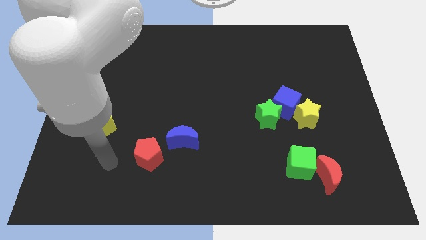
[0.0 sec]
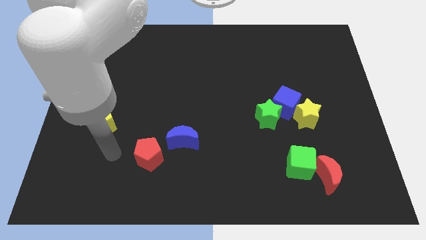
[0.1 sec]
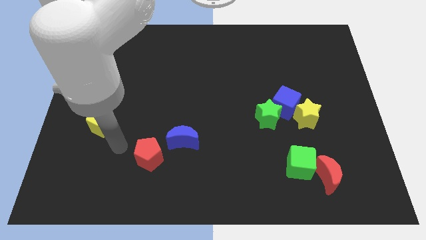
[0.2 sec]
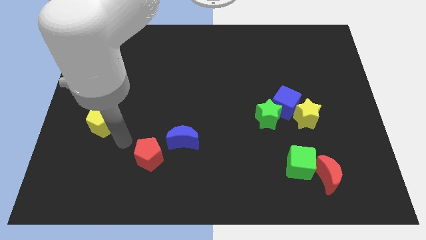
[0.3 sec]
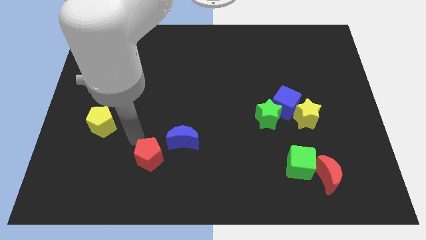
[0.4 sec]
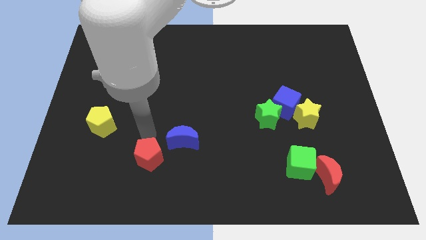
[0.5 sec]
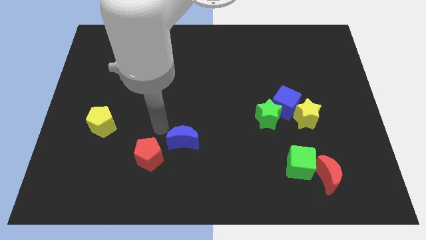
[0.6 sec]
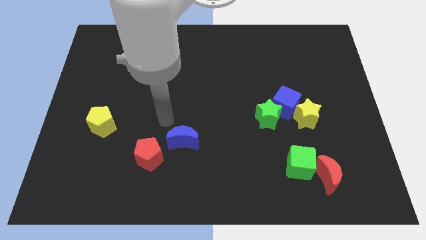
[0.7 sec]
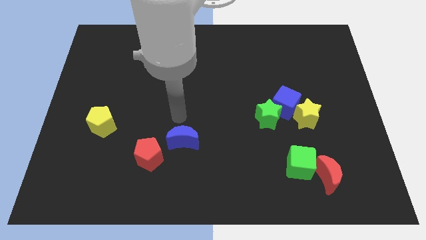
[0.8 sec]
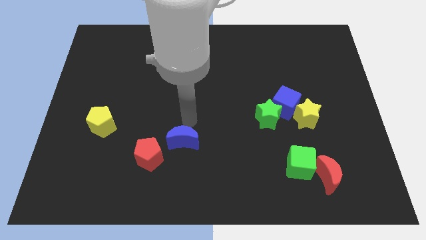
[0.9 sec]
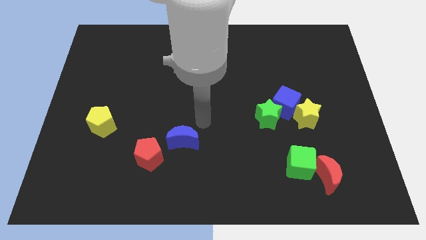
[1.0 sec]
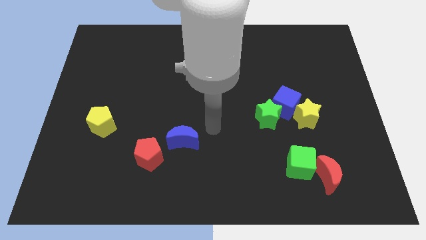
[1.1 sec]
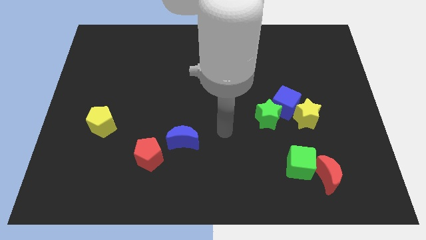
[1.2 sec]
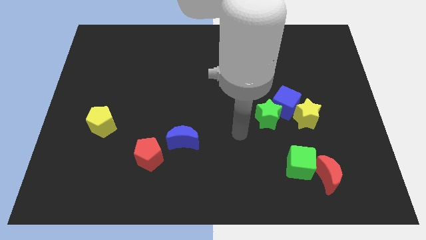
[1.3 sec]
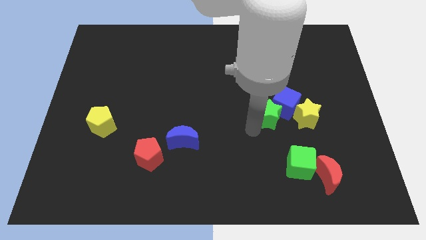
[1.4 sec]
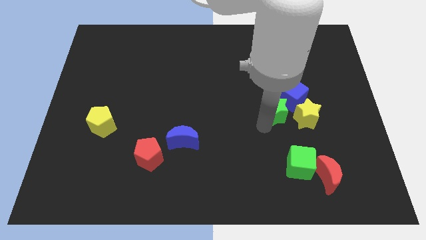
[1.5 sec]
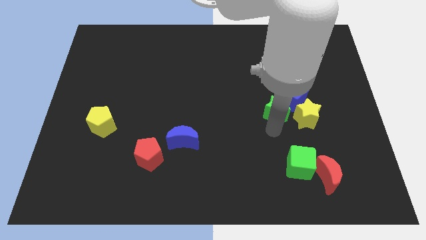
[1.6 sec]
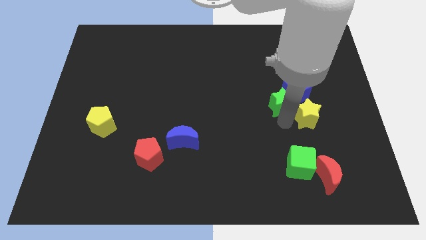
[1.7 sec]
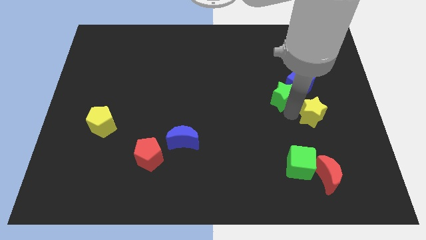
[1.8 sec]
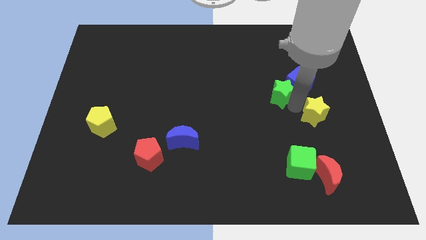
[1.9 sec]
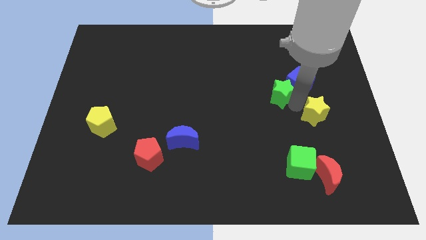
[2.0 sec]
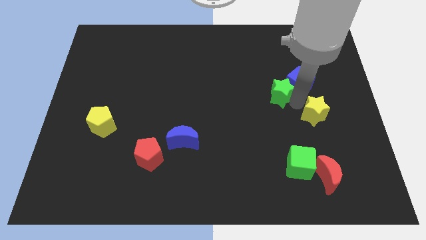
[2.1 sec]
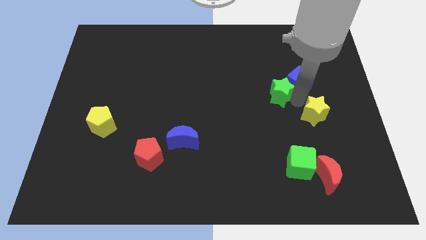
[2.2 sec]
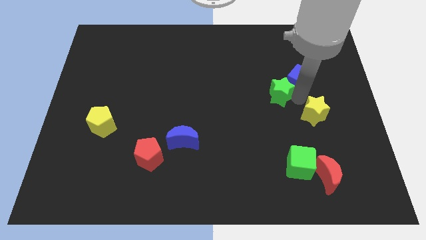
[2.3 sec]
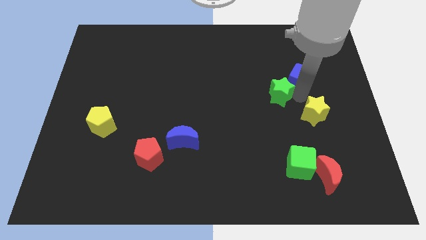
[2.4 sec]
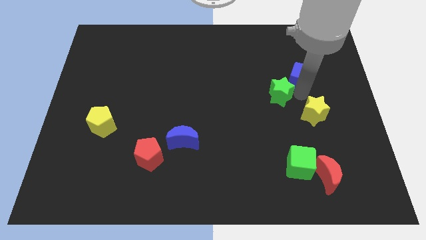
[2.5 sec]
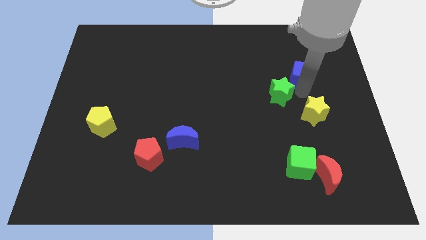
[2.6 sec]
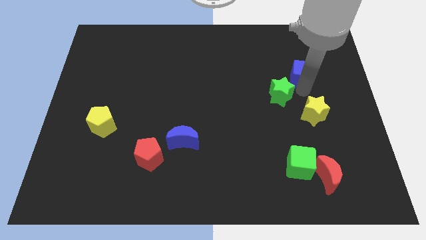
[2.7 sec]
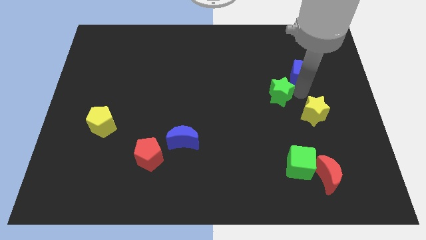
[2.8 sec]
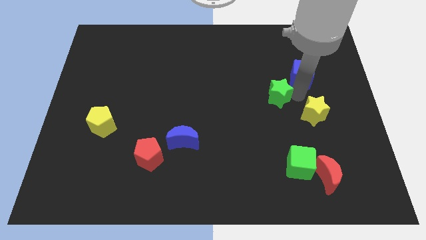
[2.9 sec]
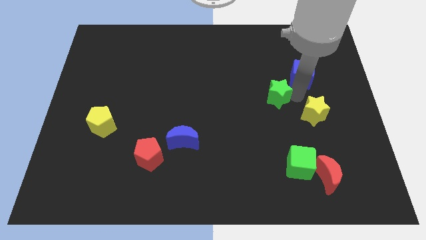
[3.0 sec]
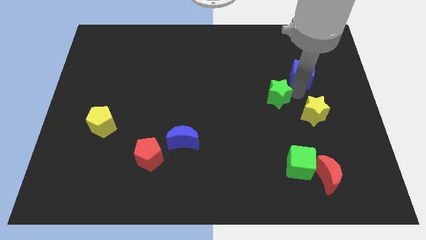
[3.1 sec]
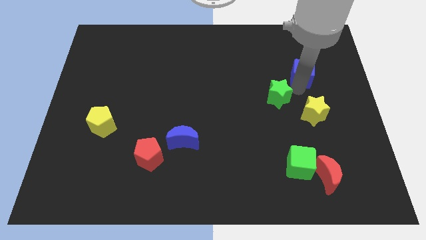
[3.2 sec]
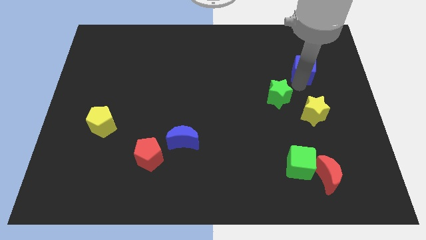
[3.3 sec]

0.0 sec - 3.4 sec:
pull the blue cube apart from the green star and yellow star

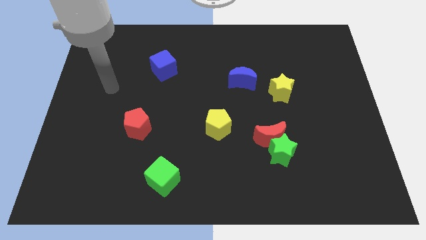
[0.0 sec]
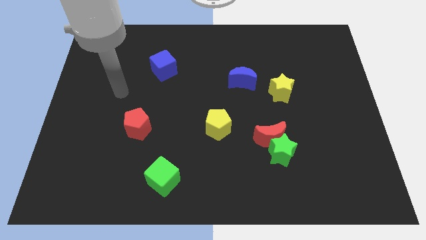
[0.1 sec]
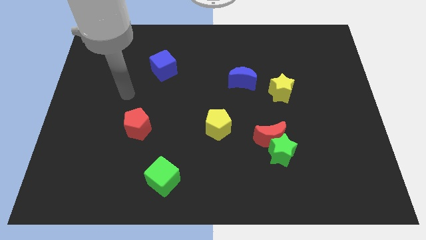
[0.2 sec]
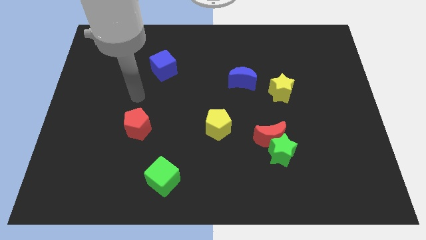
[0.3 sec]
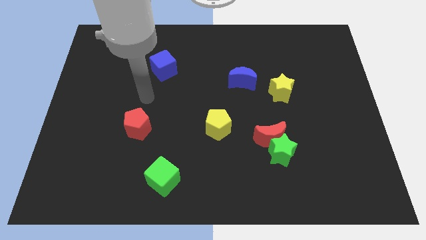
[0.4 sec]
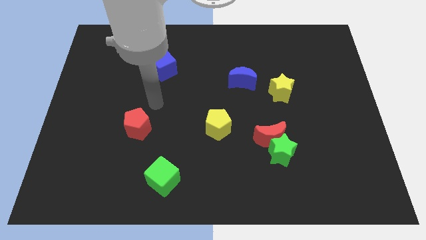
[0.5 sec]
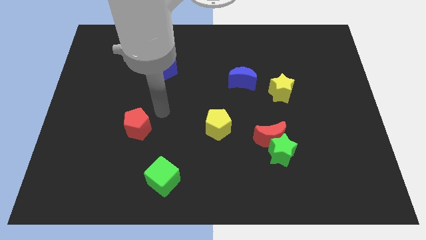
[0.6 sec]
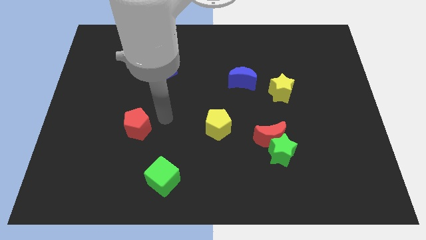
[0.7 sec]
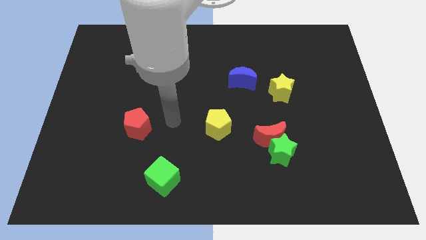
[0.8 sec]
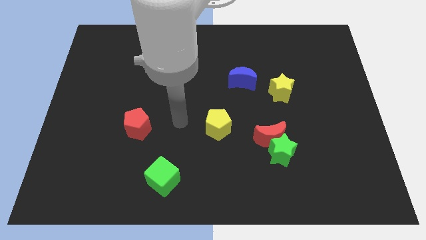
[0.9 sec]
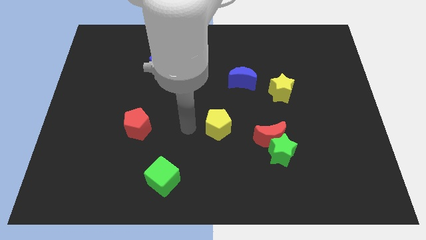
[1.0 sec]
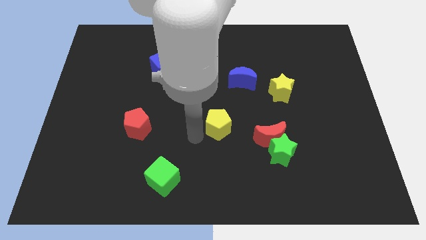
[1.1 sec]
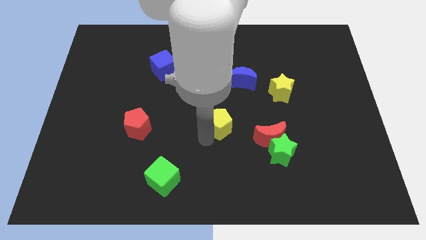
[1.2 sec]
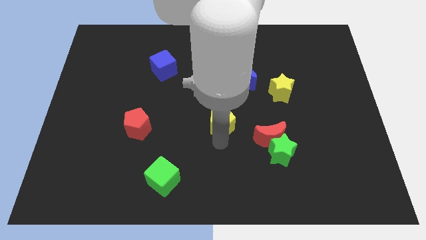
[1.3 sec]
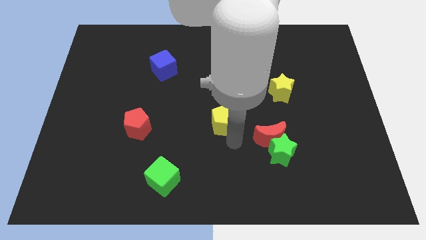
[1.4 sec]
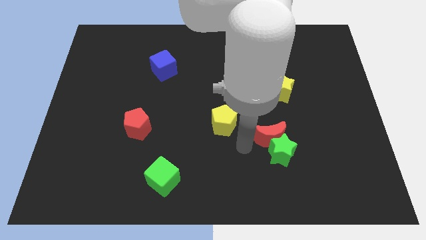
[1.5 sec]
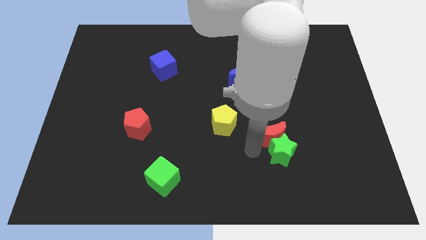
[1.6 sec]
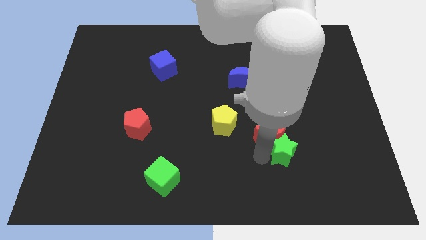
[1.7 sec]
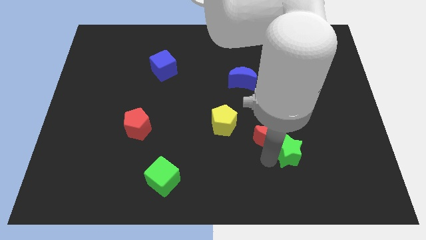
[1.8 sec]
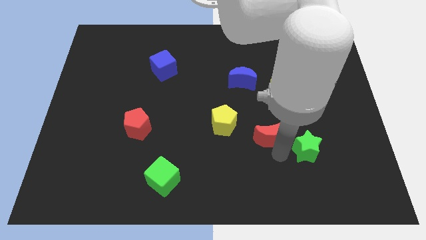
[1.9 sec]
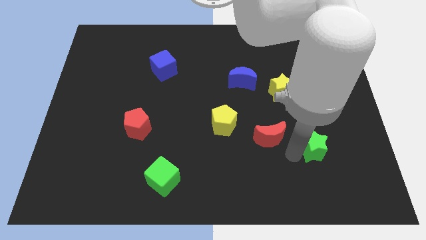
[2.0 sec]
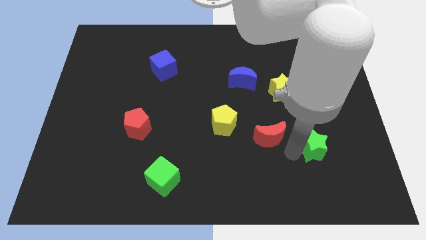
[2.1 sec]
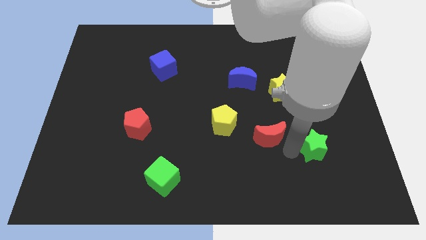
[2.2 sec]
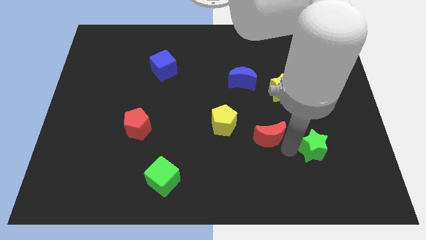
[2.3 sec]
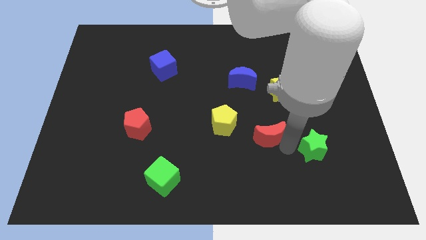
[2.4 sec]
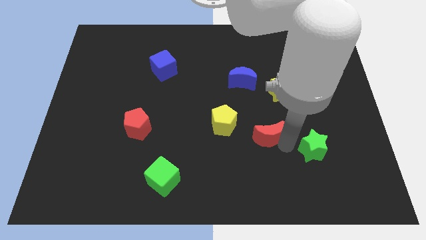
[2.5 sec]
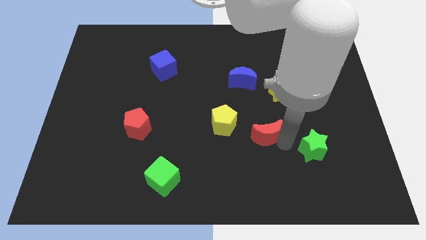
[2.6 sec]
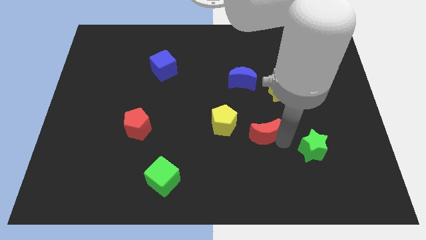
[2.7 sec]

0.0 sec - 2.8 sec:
move the red moon away from the green star

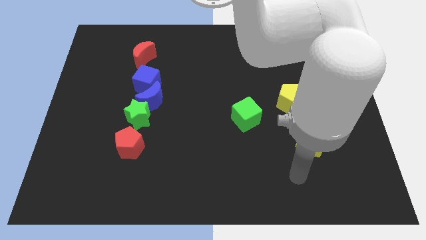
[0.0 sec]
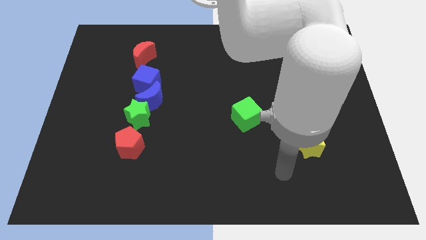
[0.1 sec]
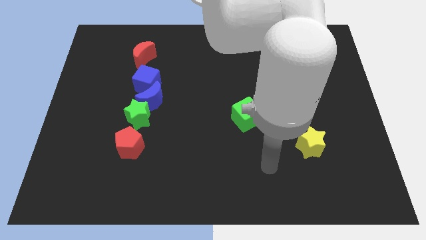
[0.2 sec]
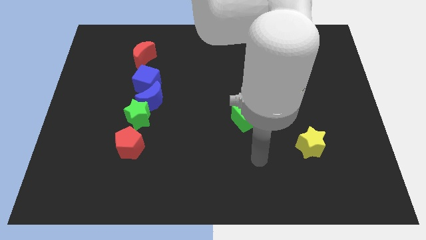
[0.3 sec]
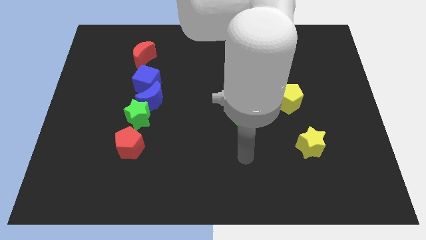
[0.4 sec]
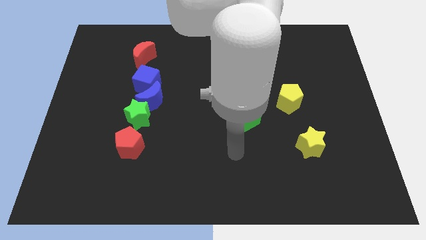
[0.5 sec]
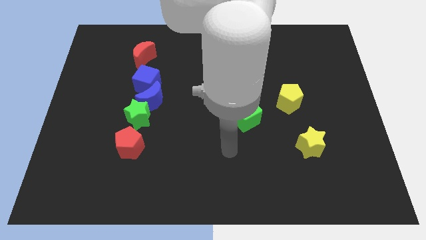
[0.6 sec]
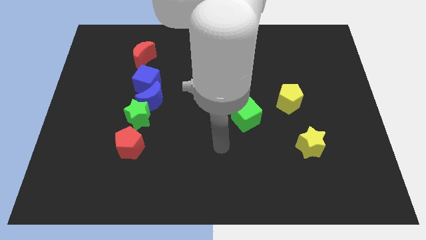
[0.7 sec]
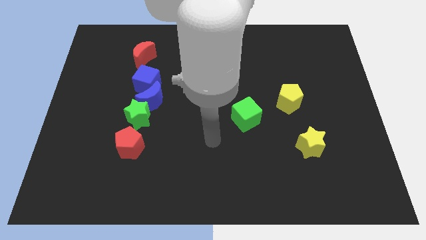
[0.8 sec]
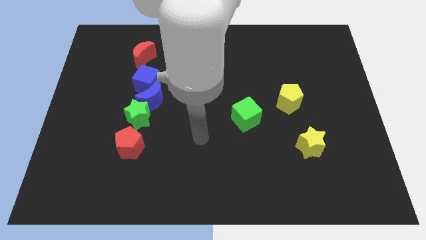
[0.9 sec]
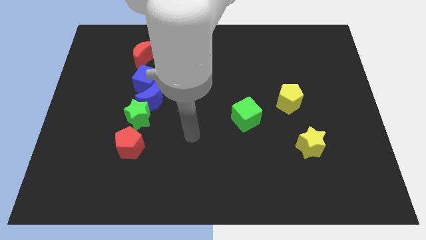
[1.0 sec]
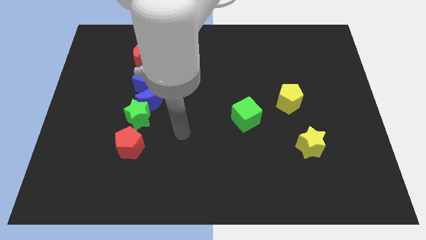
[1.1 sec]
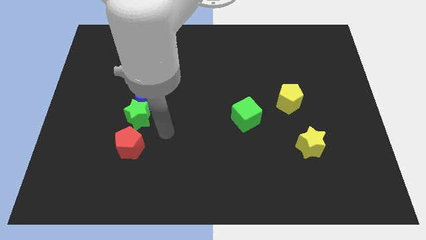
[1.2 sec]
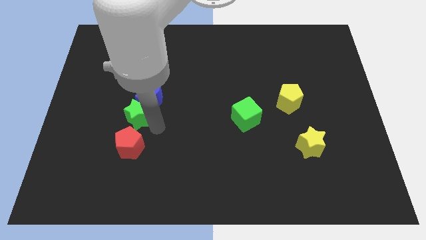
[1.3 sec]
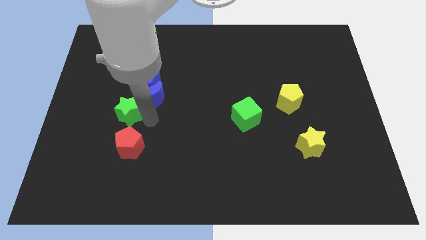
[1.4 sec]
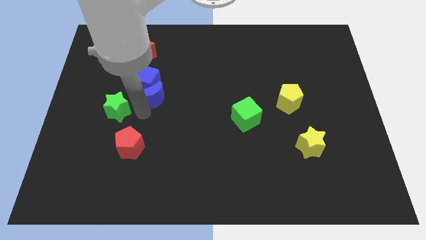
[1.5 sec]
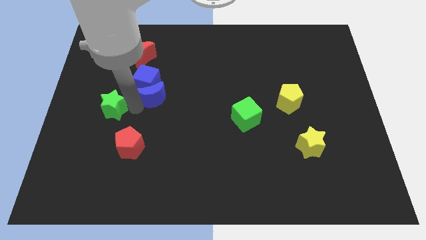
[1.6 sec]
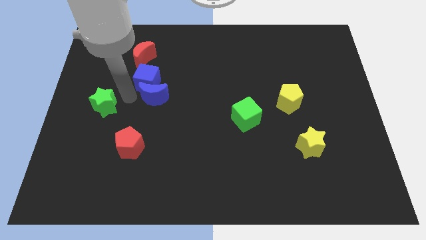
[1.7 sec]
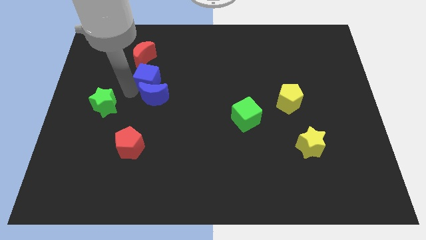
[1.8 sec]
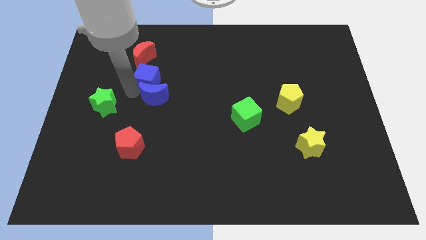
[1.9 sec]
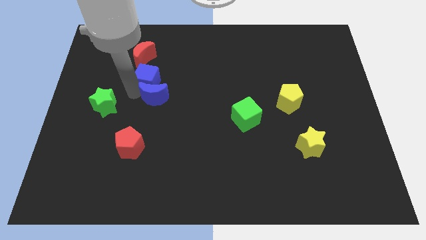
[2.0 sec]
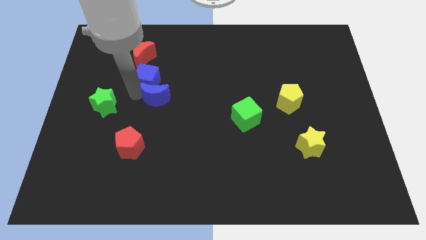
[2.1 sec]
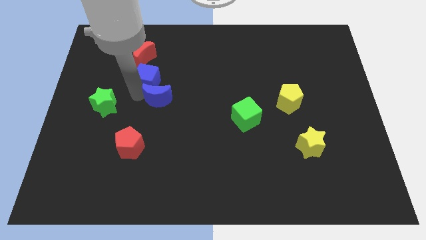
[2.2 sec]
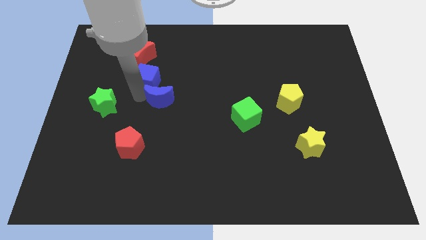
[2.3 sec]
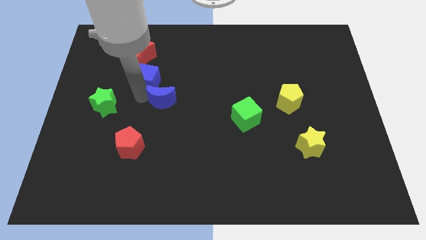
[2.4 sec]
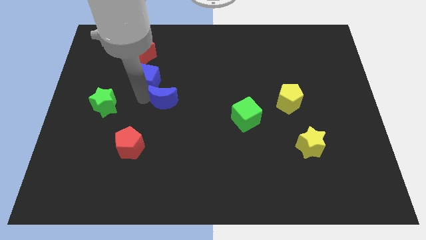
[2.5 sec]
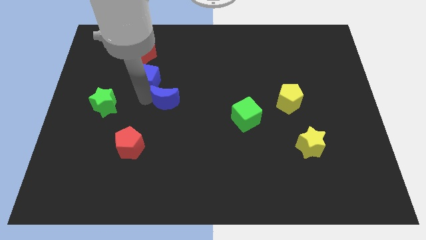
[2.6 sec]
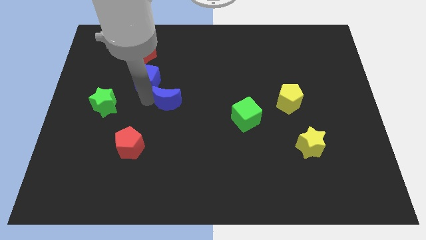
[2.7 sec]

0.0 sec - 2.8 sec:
pull the blue moon apart from the green star and blue cube

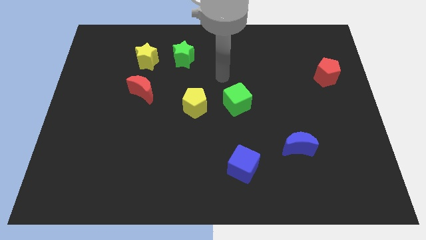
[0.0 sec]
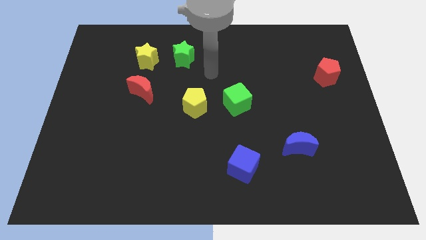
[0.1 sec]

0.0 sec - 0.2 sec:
move the green star away from the yellow star
